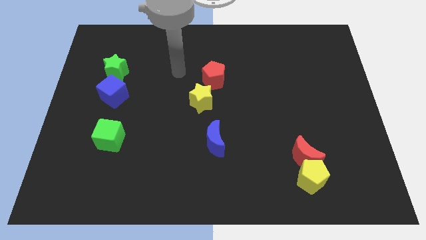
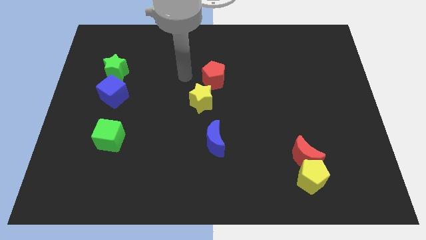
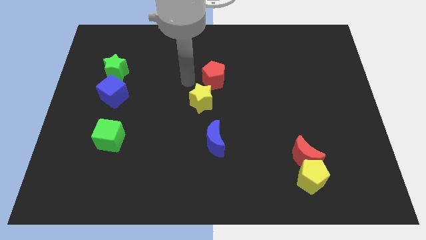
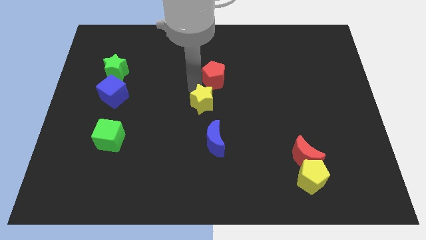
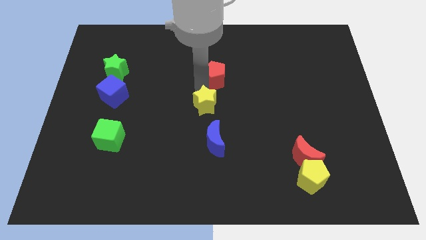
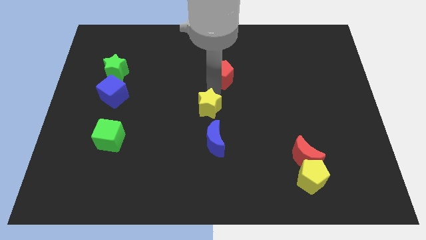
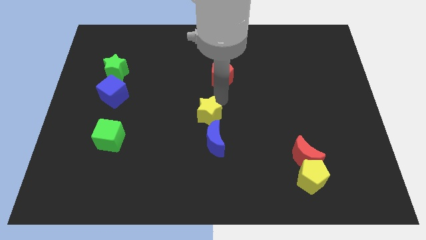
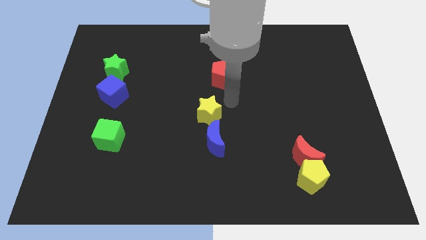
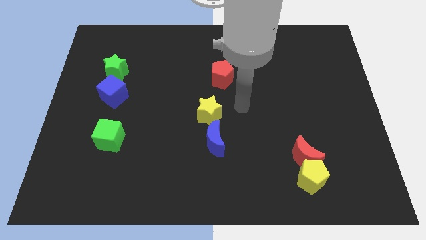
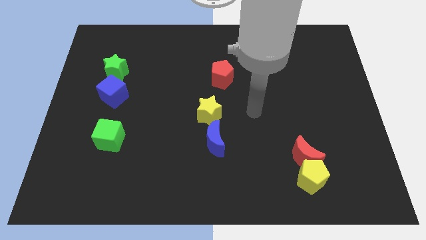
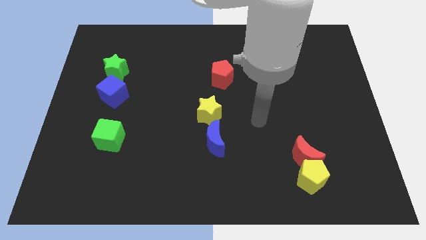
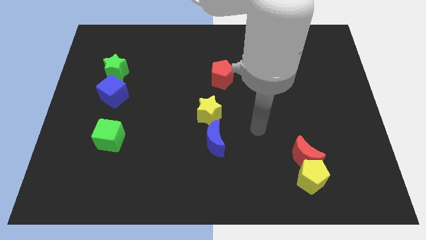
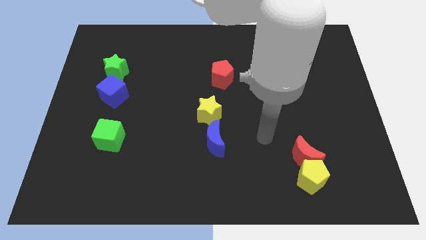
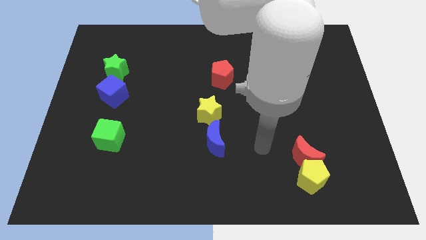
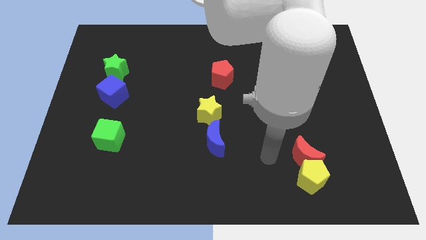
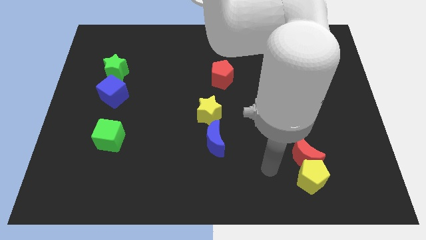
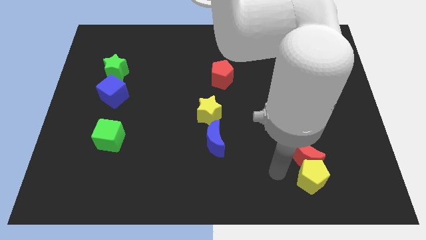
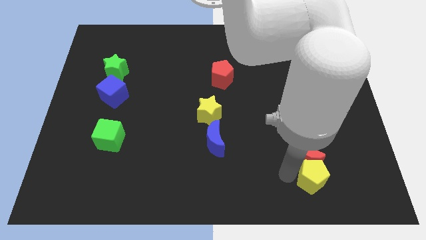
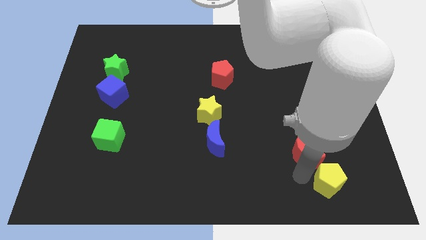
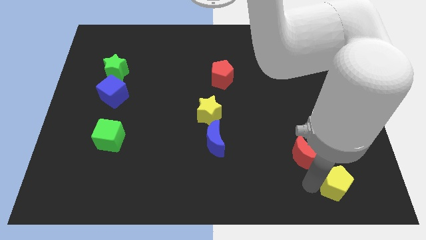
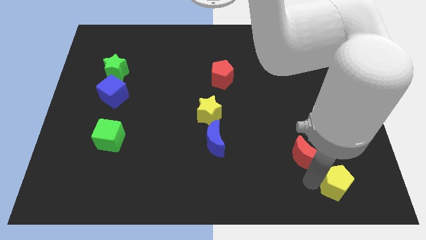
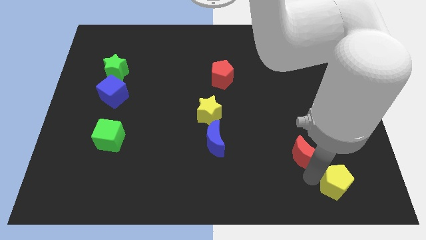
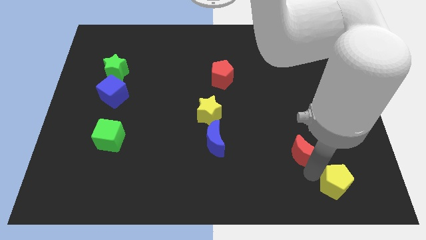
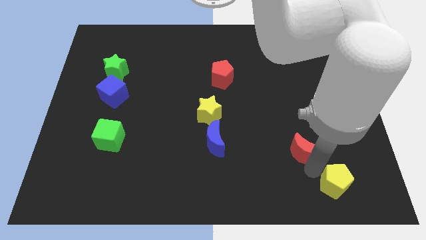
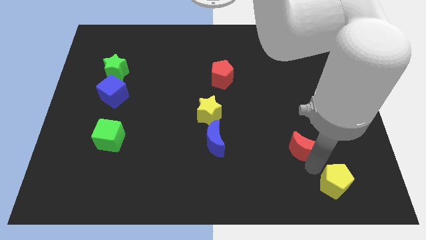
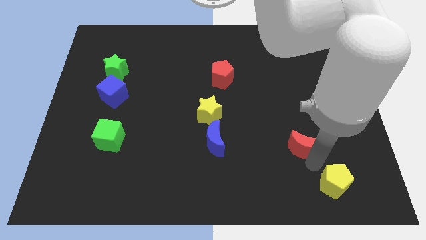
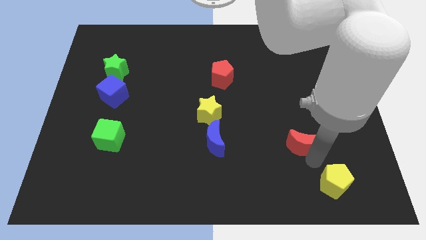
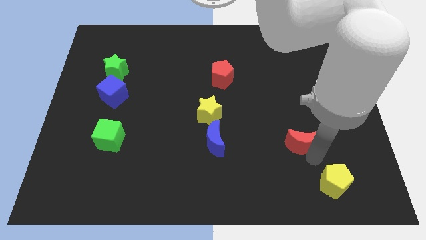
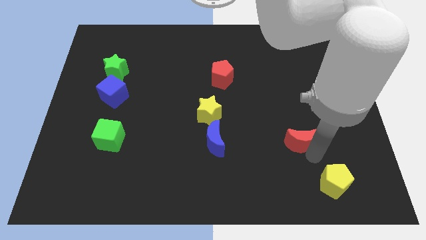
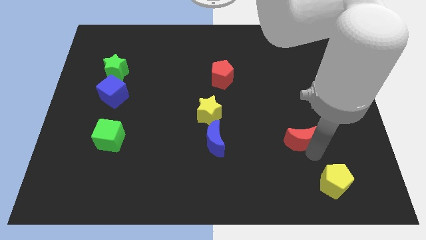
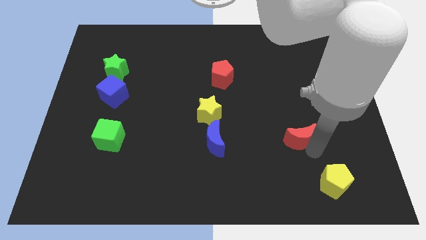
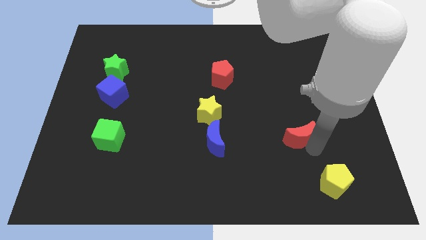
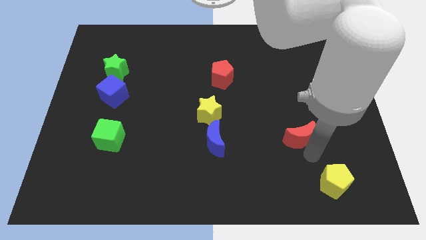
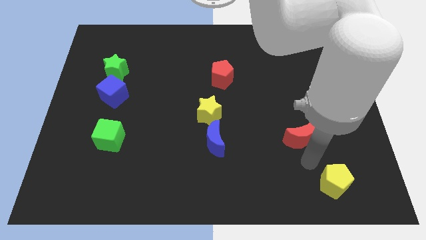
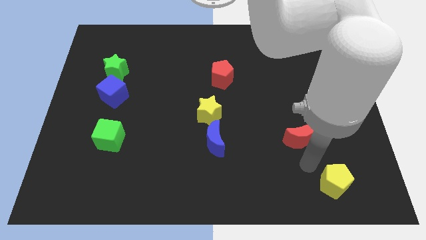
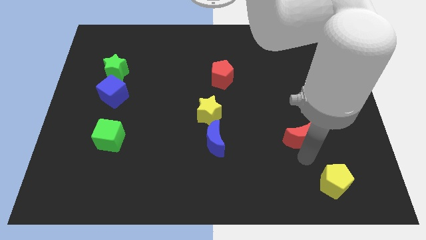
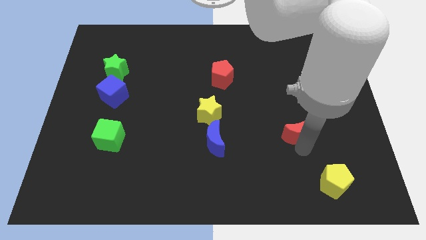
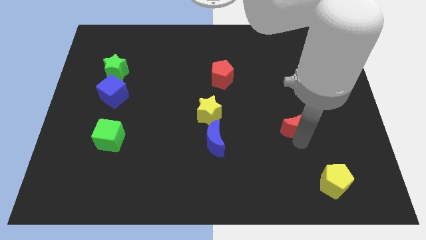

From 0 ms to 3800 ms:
push the red moon upwards a bit

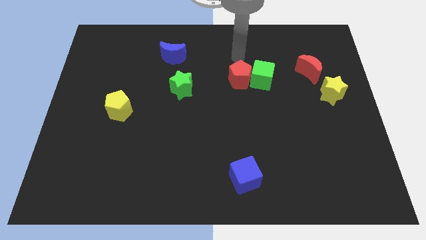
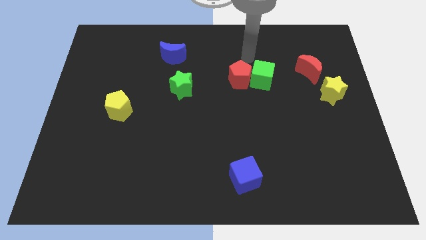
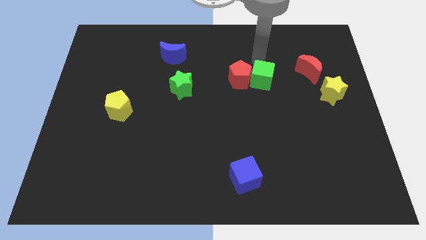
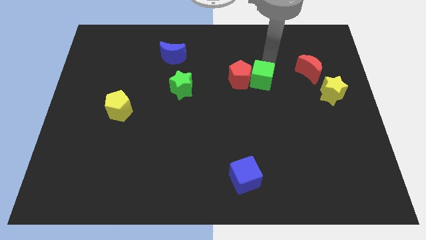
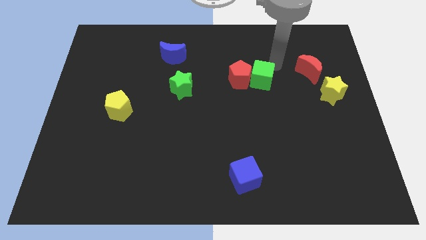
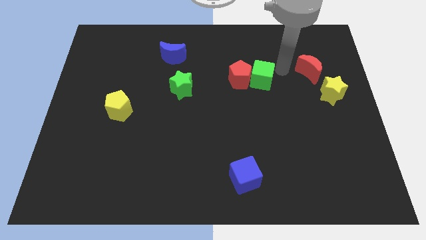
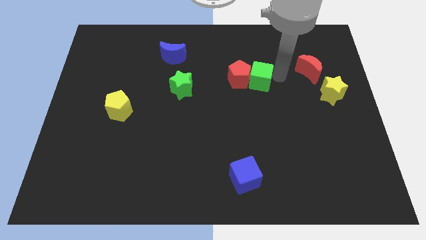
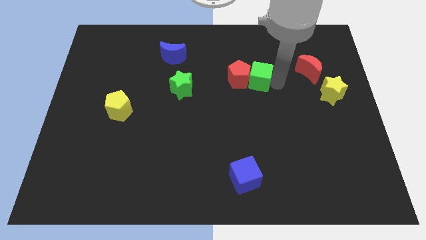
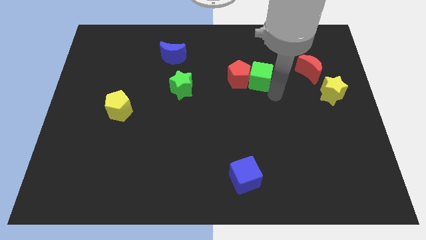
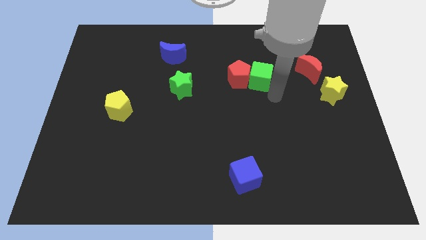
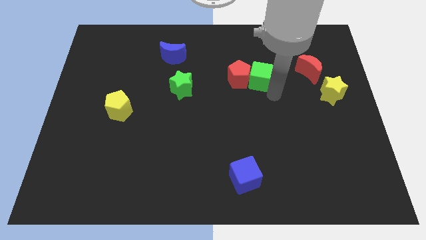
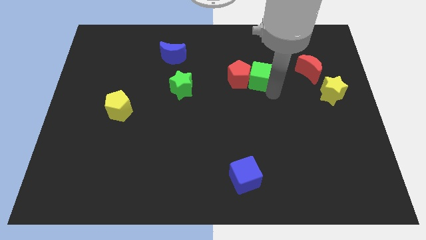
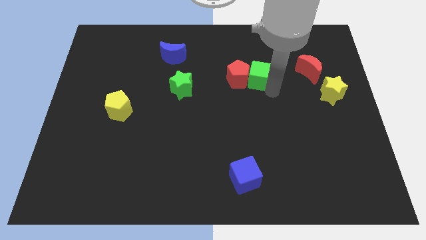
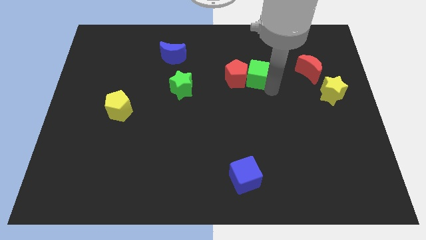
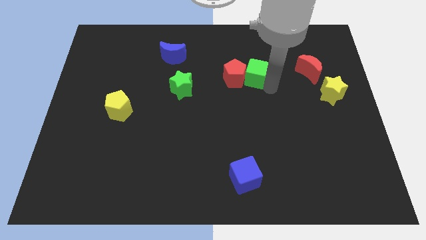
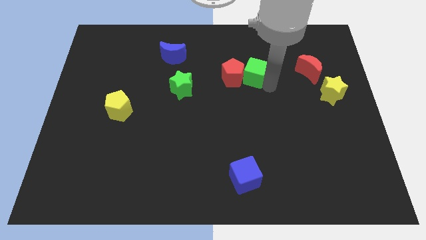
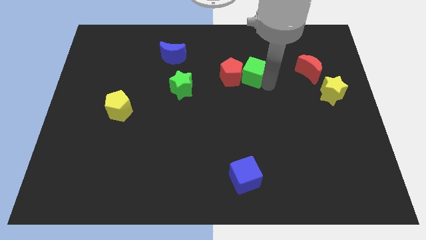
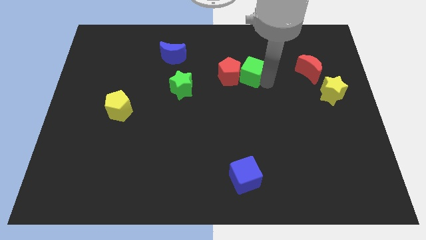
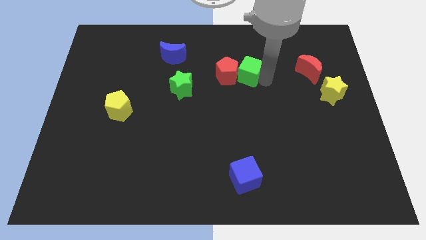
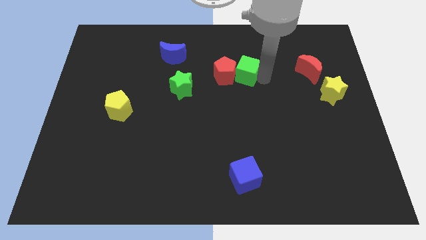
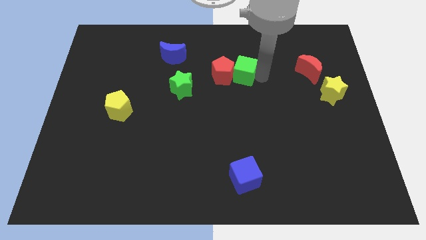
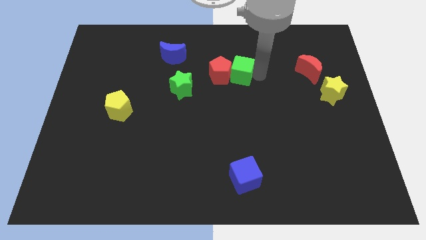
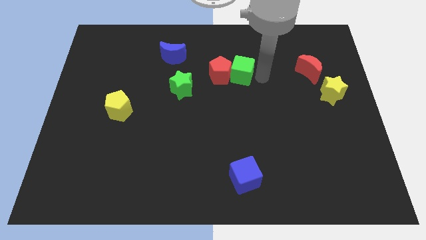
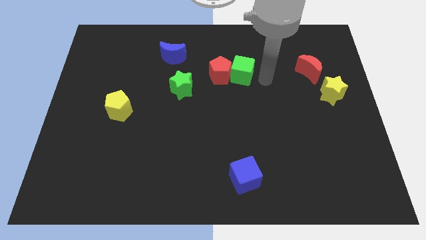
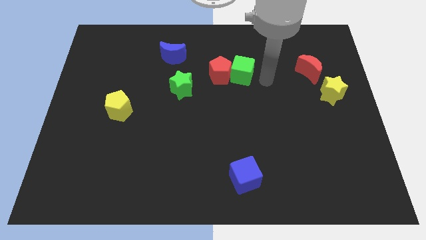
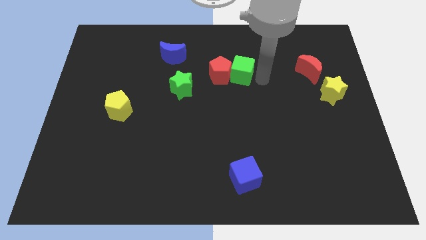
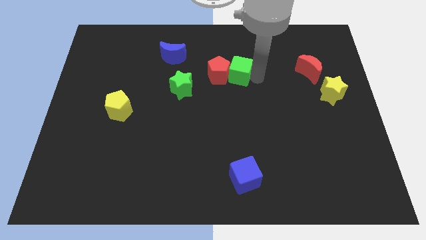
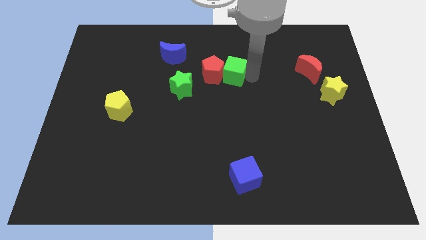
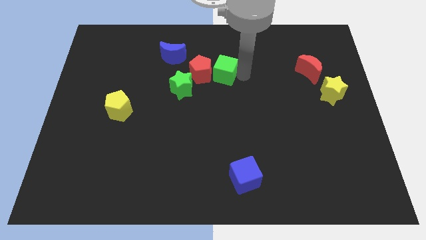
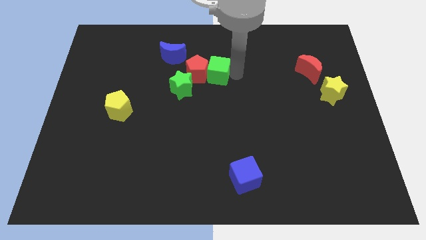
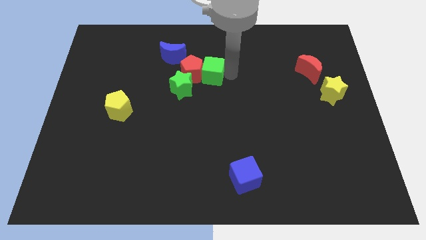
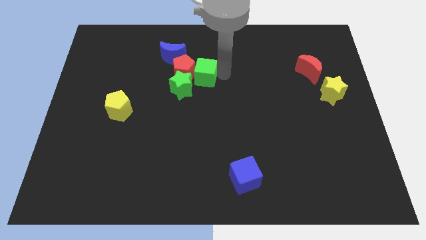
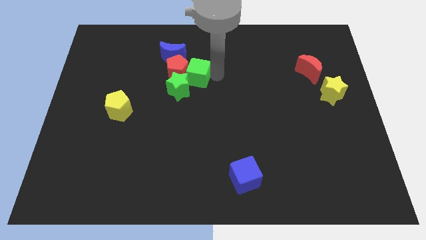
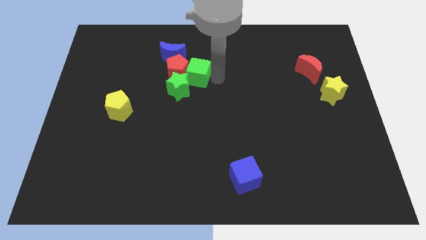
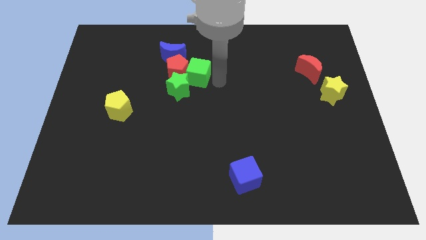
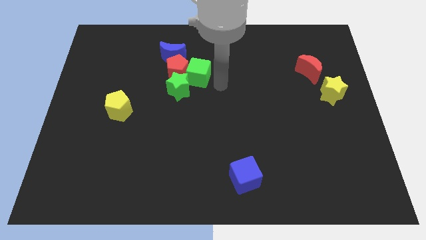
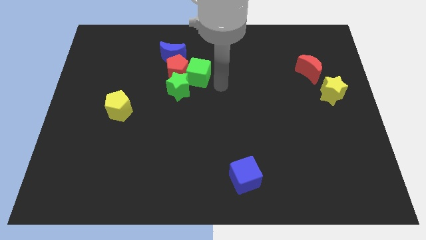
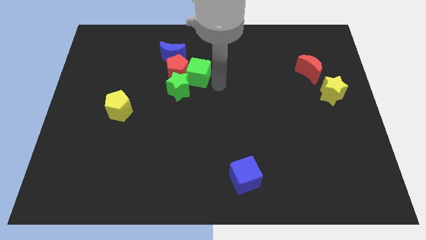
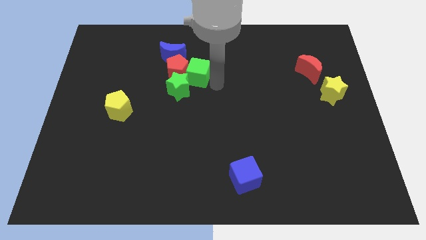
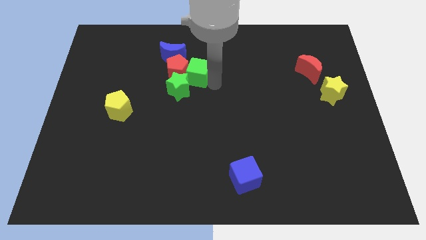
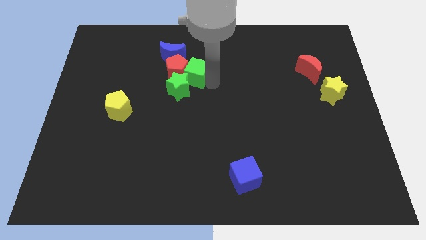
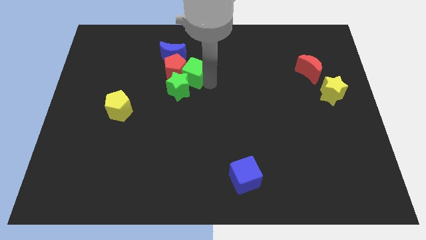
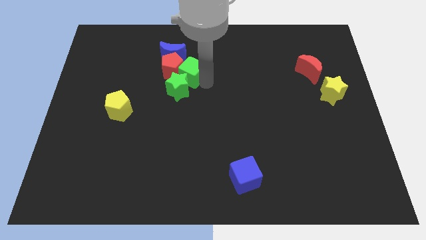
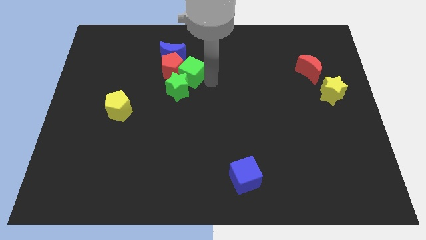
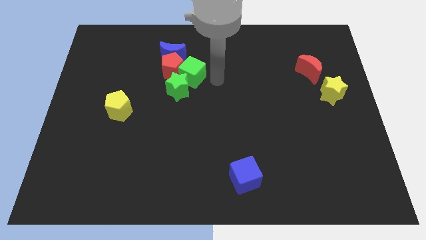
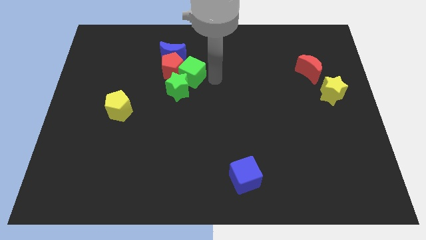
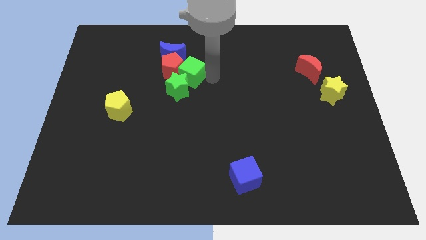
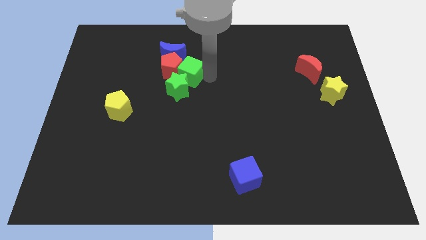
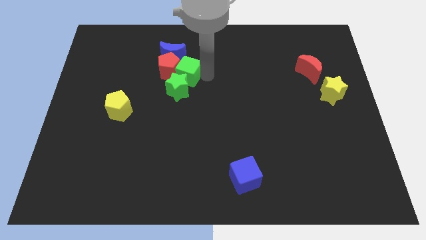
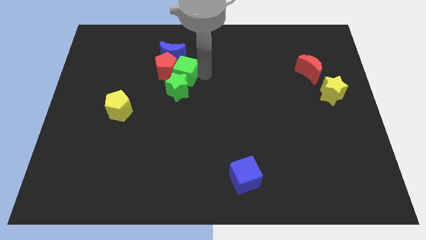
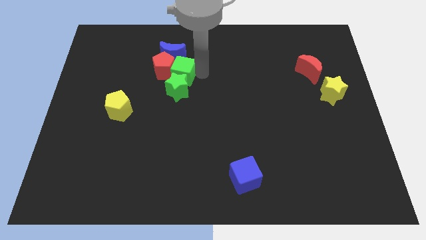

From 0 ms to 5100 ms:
slide the green cube left
